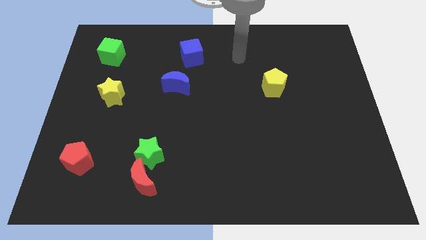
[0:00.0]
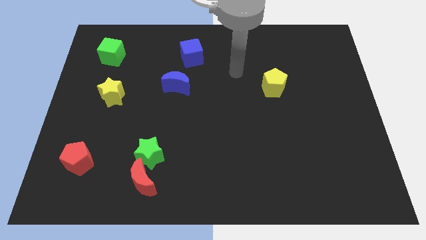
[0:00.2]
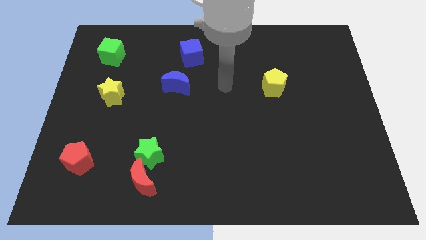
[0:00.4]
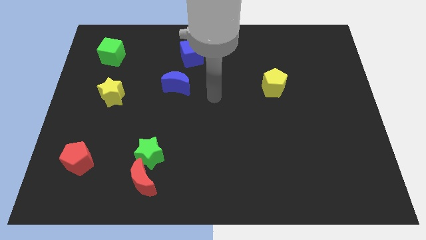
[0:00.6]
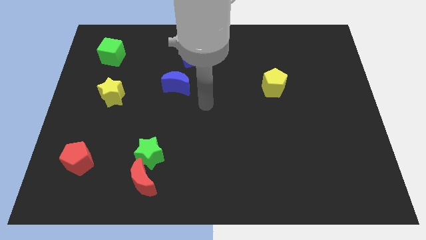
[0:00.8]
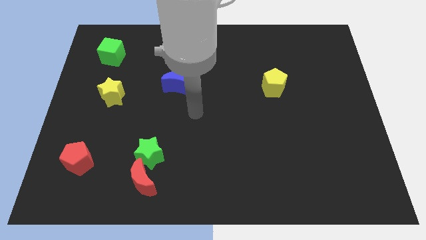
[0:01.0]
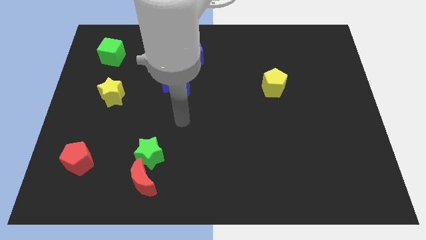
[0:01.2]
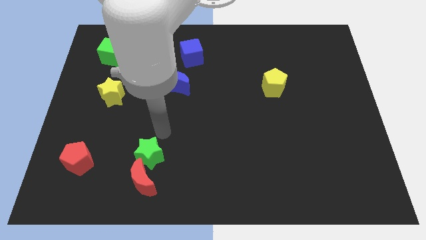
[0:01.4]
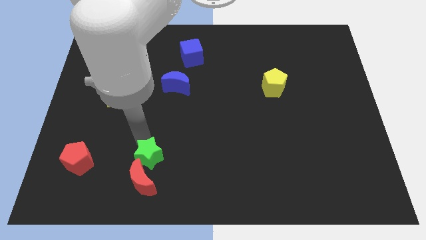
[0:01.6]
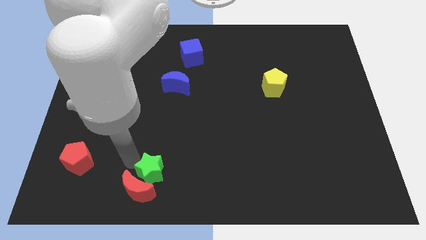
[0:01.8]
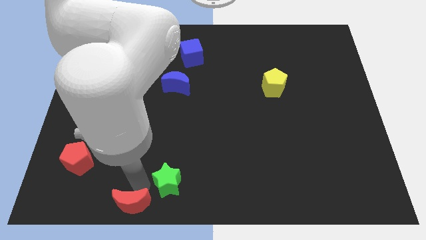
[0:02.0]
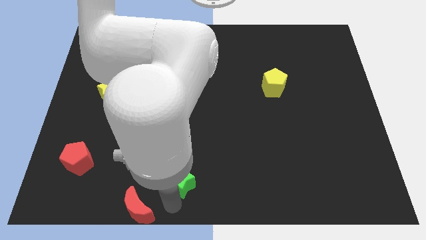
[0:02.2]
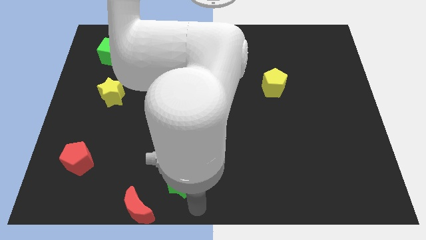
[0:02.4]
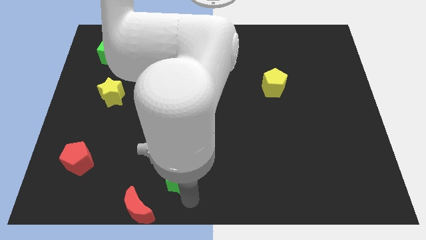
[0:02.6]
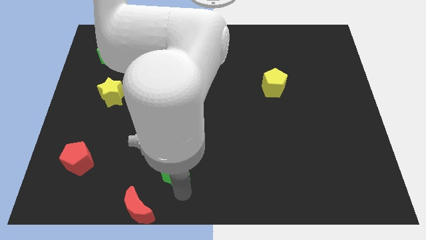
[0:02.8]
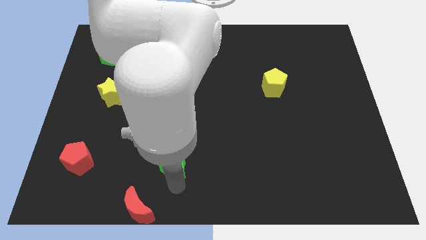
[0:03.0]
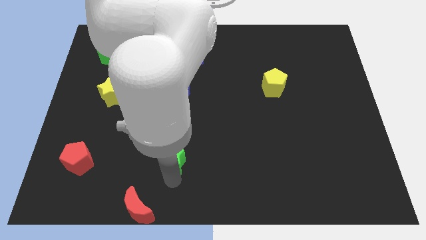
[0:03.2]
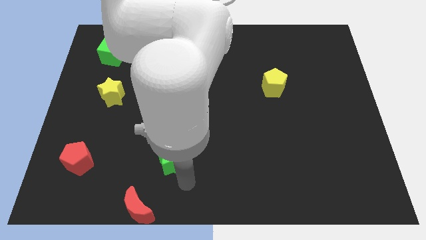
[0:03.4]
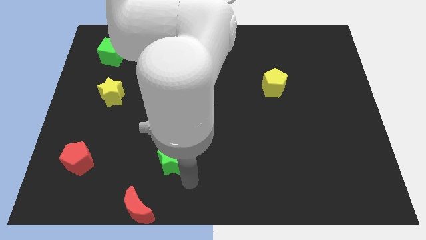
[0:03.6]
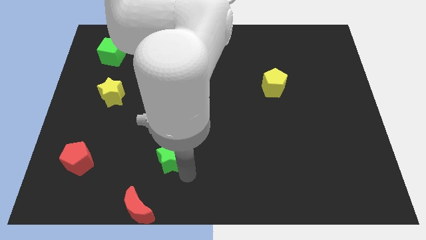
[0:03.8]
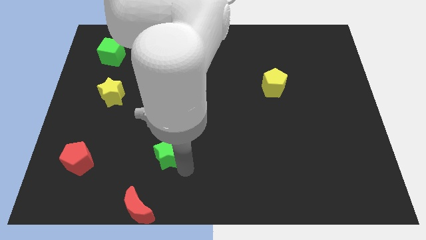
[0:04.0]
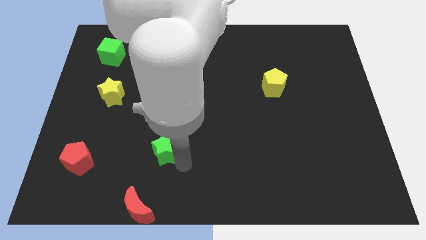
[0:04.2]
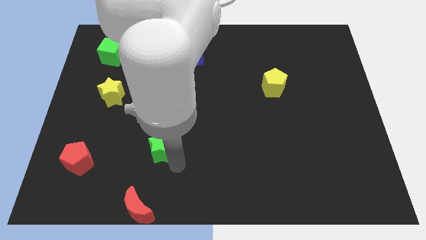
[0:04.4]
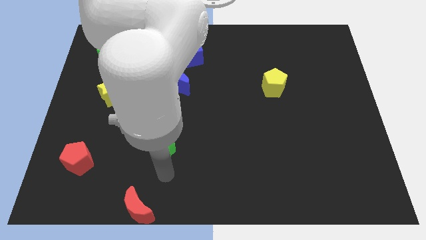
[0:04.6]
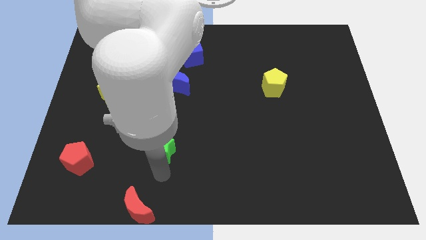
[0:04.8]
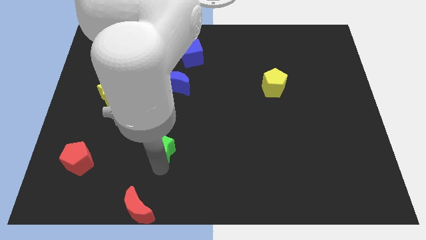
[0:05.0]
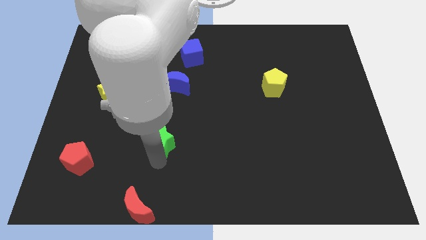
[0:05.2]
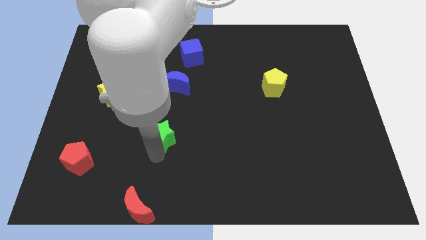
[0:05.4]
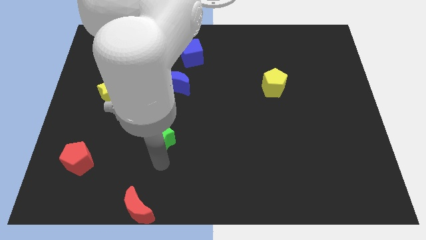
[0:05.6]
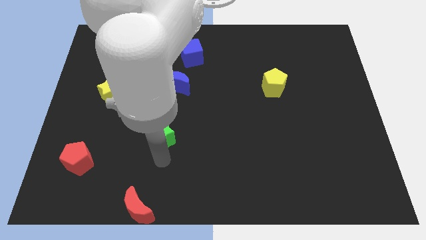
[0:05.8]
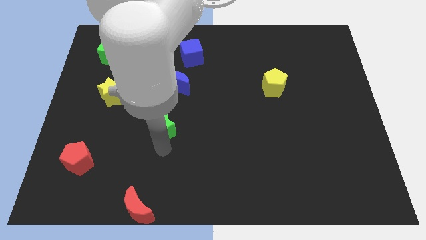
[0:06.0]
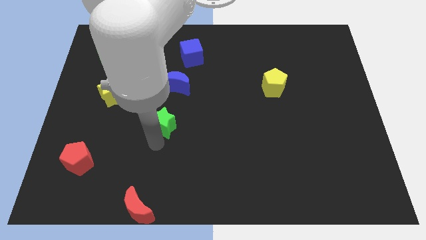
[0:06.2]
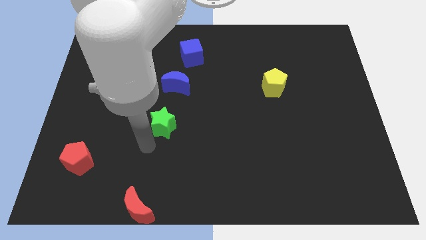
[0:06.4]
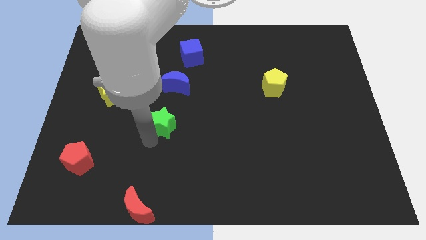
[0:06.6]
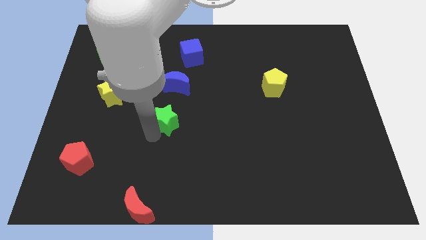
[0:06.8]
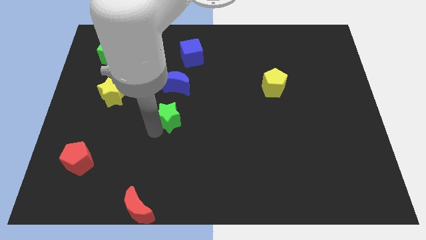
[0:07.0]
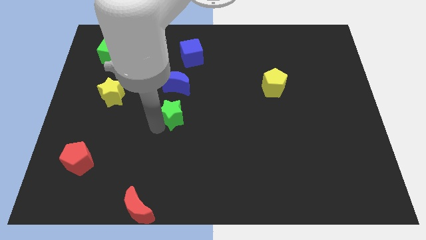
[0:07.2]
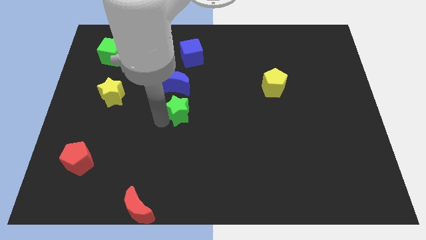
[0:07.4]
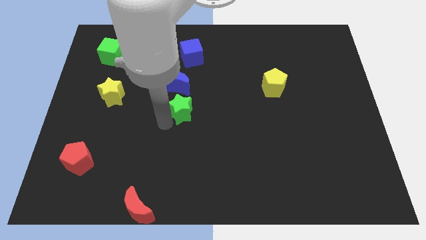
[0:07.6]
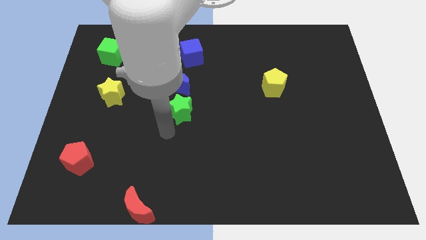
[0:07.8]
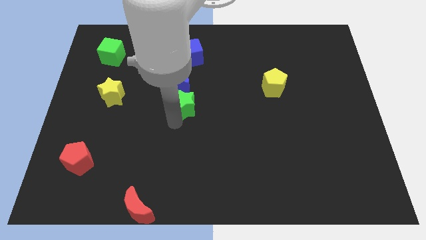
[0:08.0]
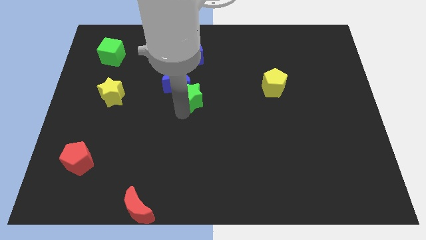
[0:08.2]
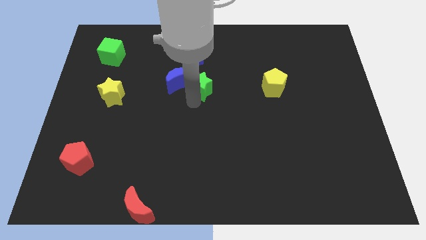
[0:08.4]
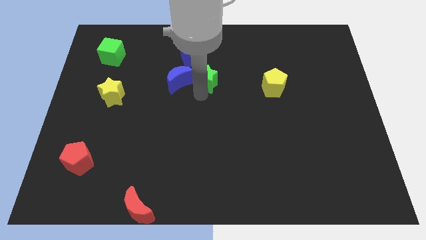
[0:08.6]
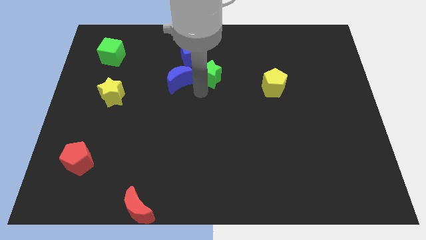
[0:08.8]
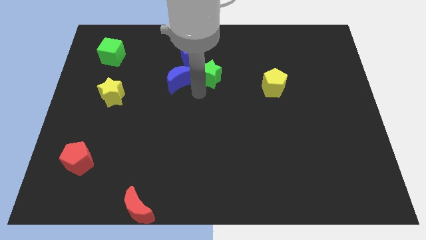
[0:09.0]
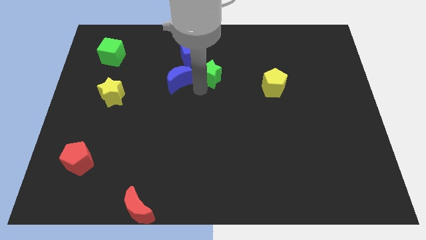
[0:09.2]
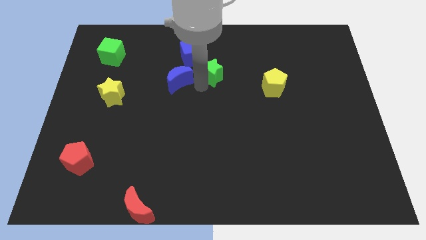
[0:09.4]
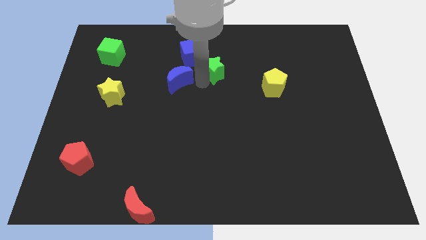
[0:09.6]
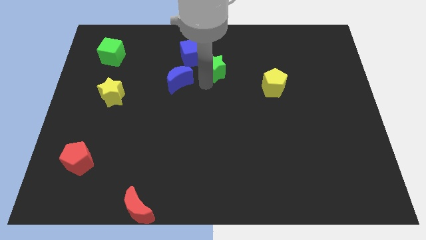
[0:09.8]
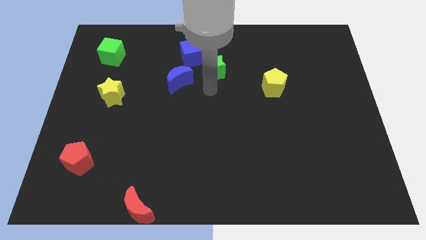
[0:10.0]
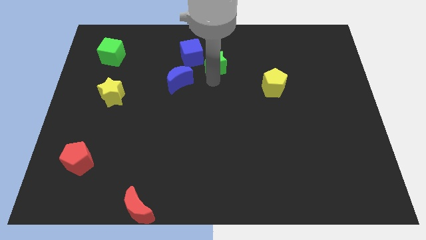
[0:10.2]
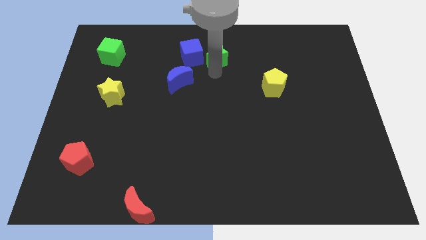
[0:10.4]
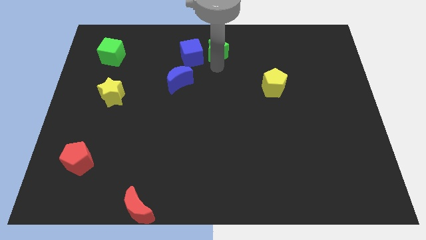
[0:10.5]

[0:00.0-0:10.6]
slide the green star to the top

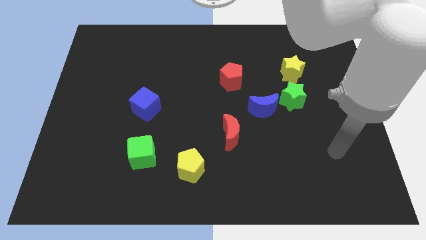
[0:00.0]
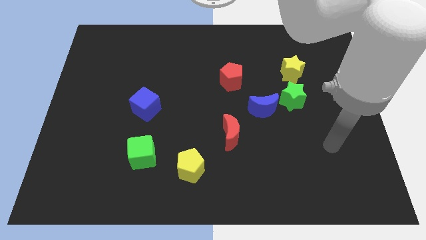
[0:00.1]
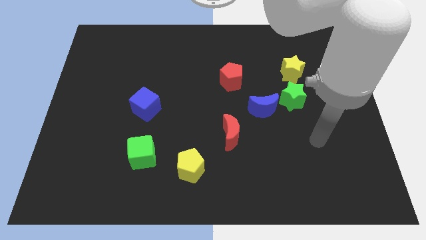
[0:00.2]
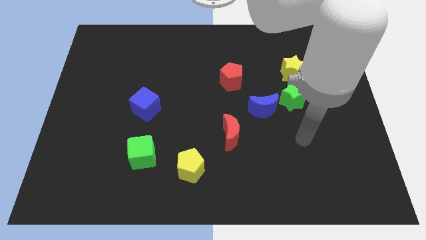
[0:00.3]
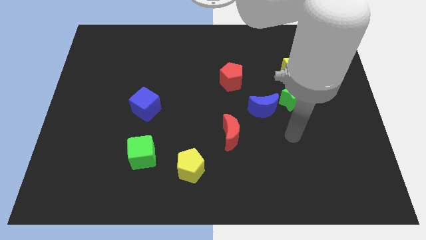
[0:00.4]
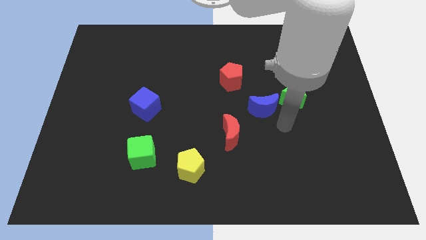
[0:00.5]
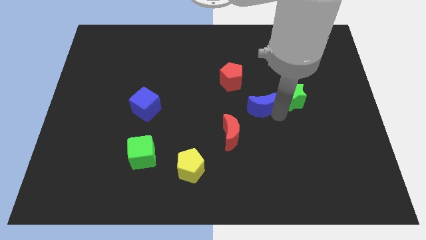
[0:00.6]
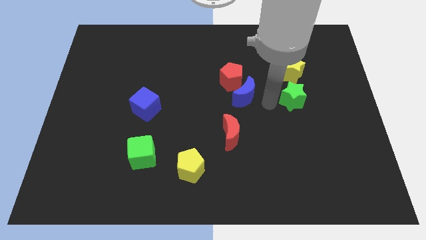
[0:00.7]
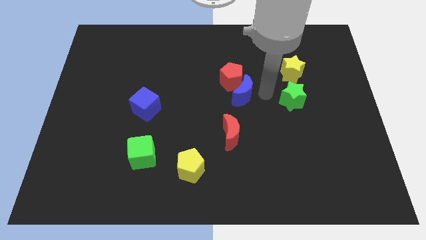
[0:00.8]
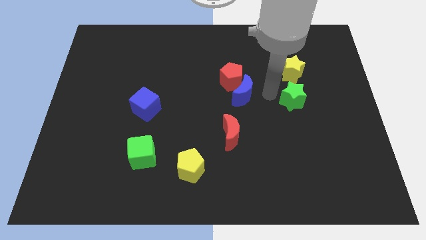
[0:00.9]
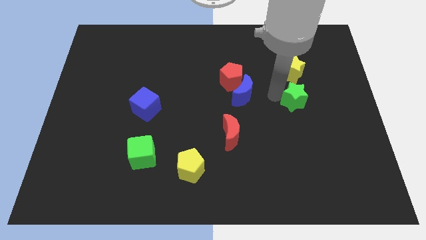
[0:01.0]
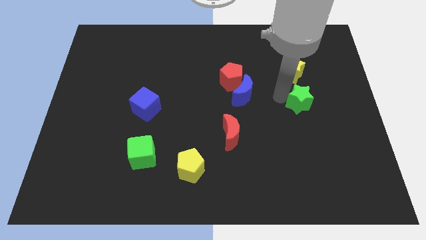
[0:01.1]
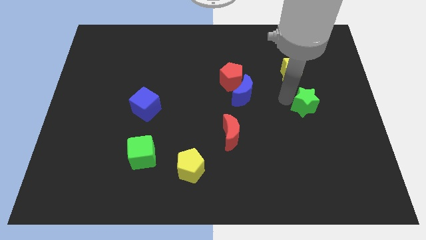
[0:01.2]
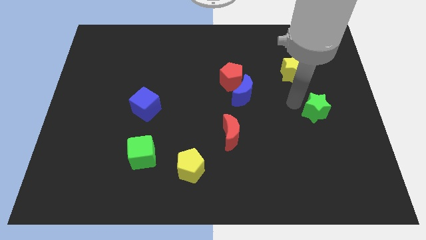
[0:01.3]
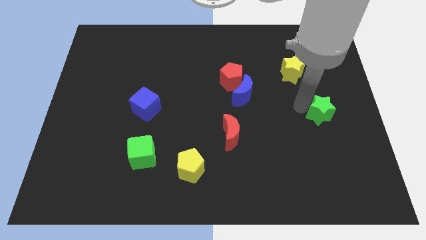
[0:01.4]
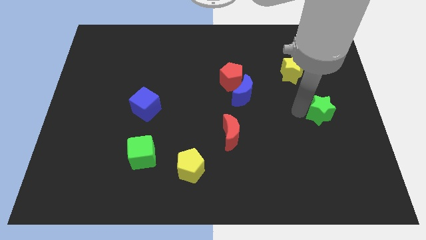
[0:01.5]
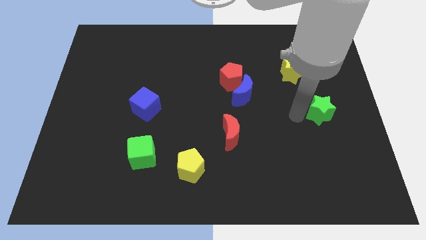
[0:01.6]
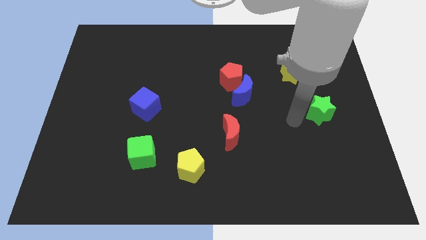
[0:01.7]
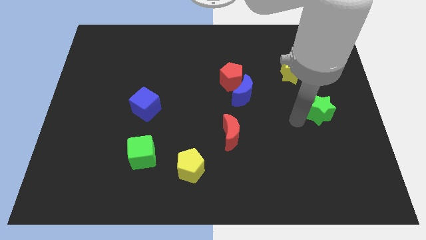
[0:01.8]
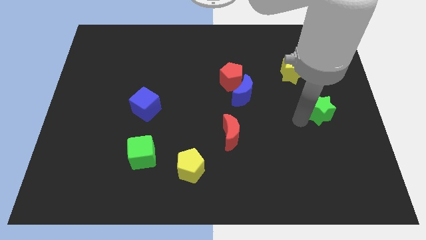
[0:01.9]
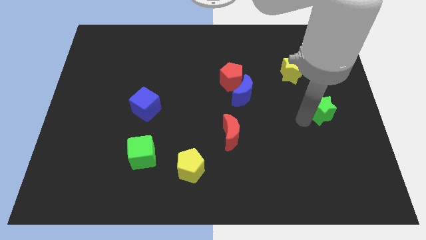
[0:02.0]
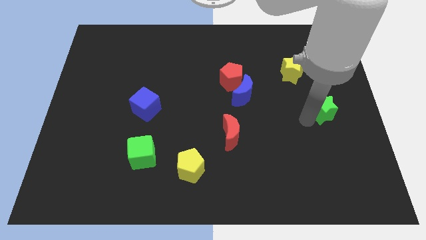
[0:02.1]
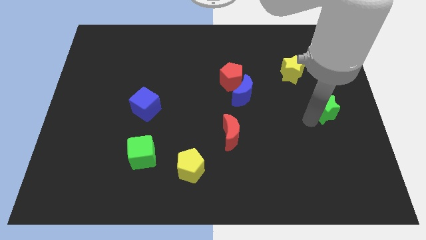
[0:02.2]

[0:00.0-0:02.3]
slide the green star to the center right

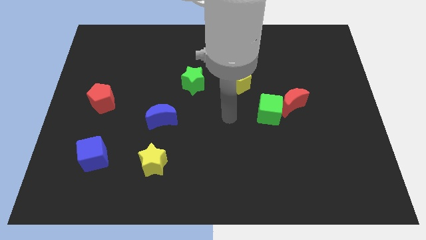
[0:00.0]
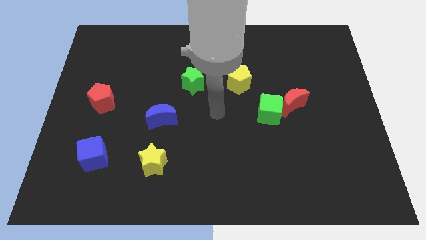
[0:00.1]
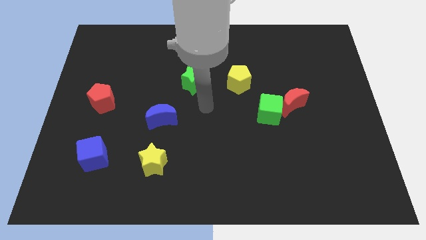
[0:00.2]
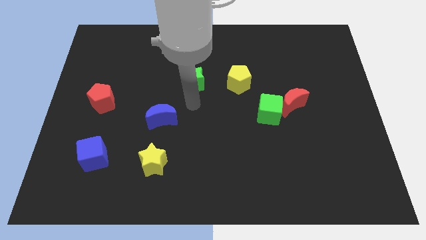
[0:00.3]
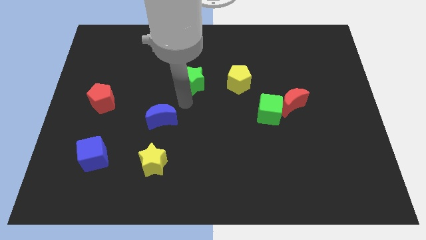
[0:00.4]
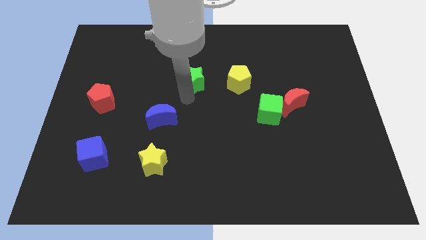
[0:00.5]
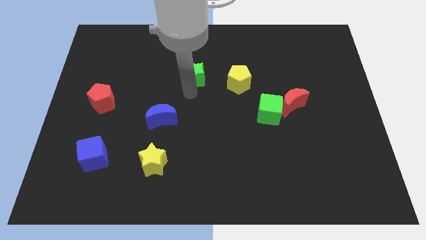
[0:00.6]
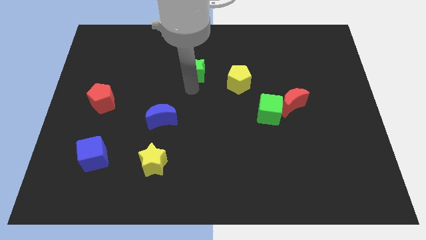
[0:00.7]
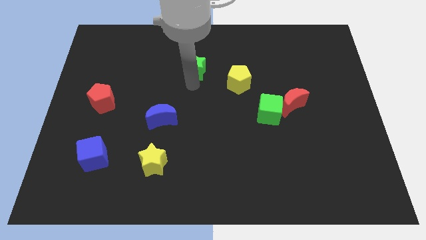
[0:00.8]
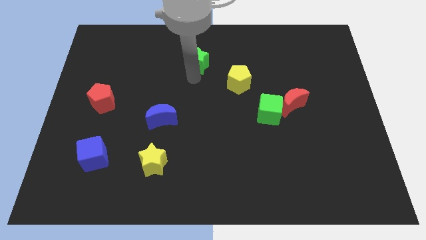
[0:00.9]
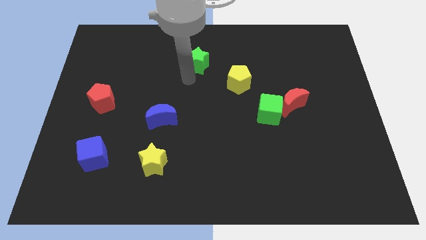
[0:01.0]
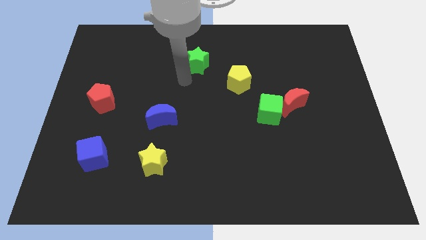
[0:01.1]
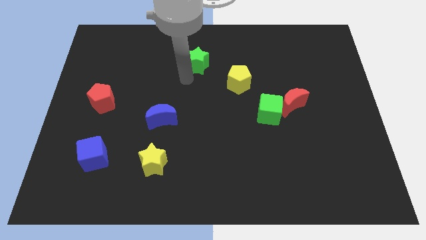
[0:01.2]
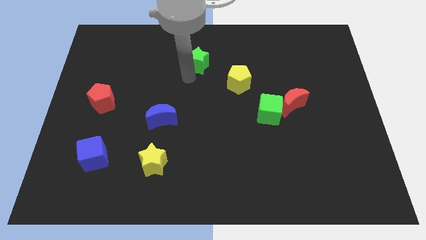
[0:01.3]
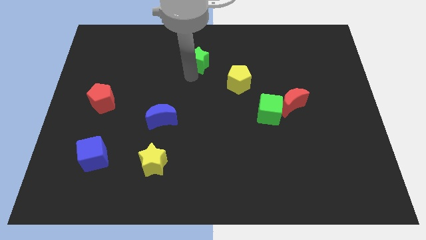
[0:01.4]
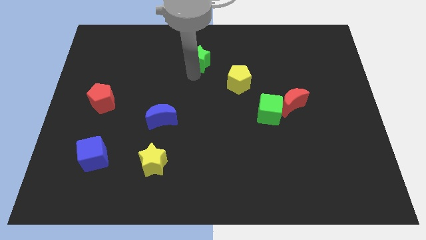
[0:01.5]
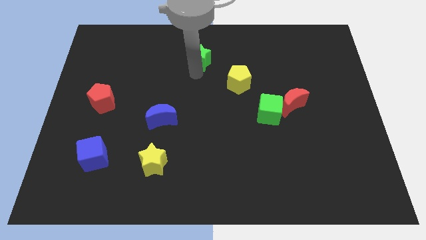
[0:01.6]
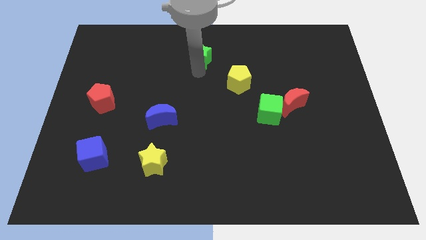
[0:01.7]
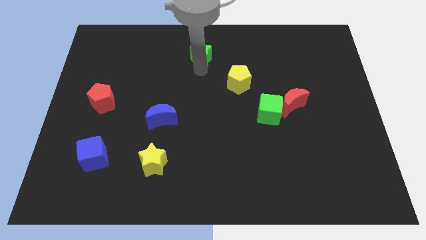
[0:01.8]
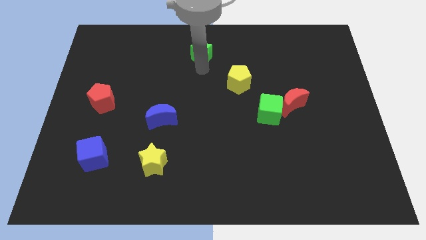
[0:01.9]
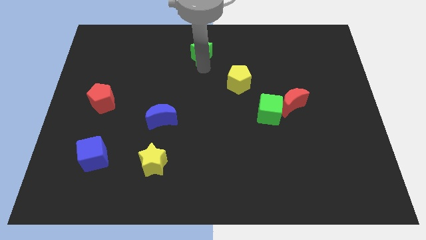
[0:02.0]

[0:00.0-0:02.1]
push the green star to the towards your base
